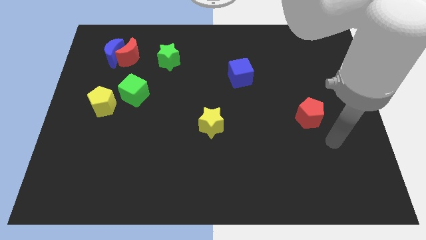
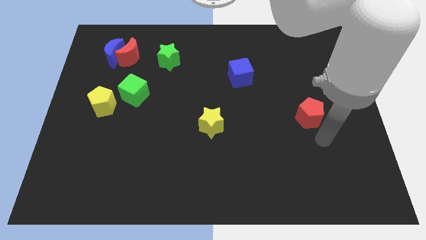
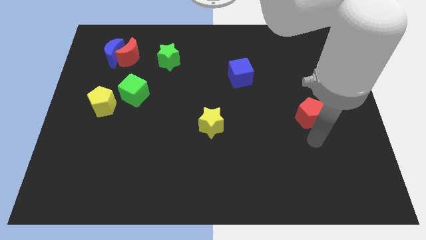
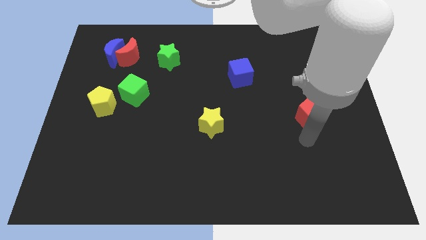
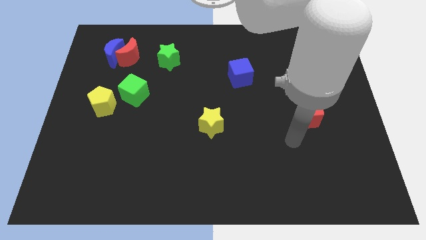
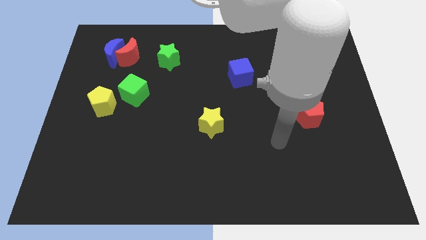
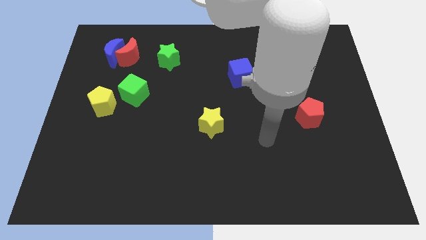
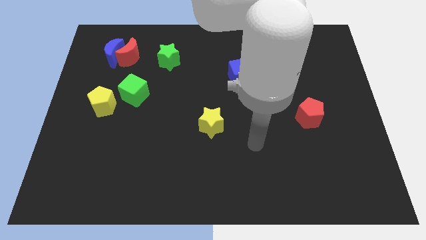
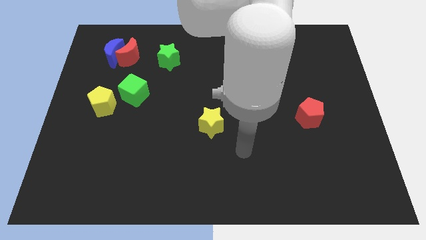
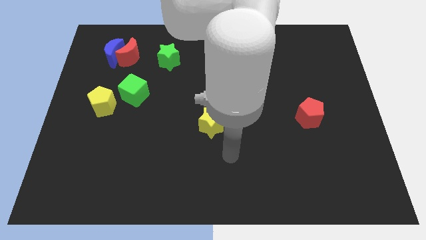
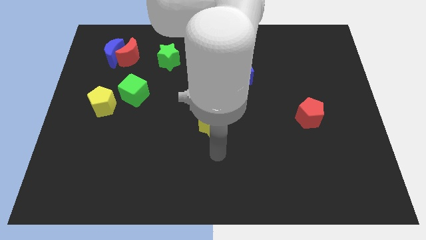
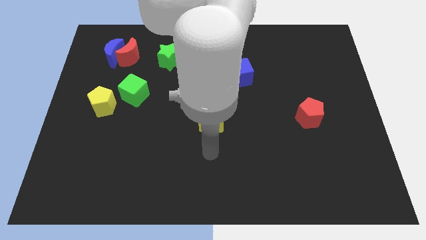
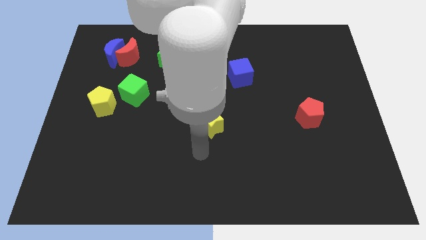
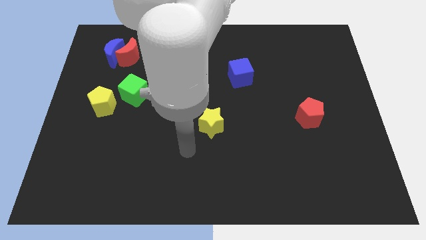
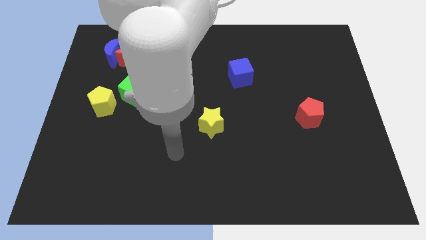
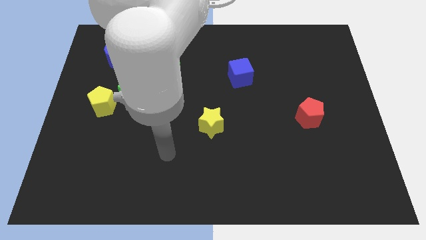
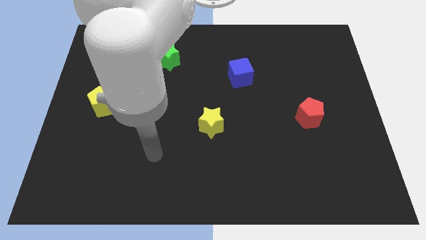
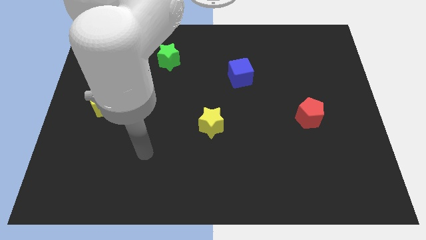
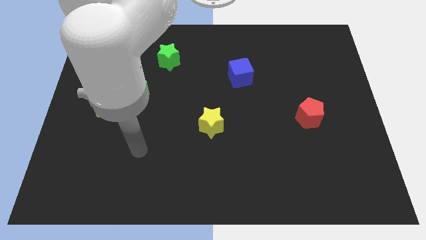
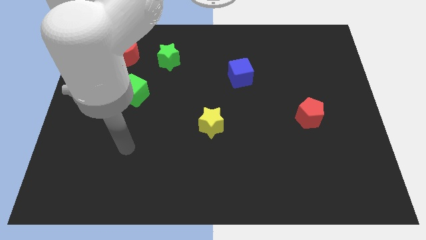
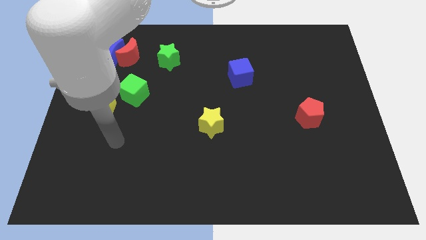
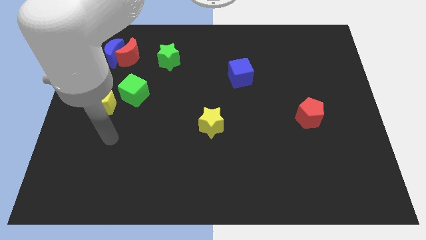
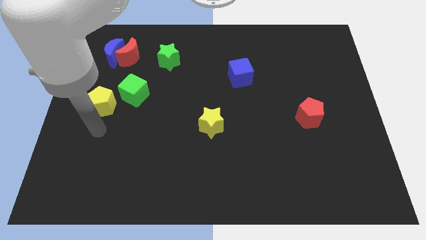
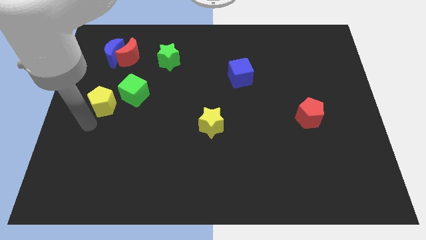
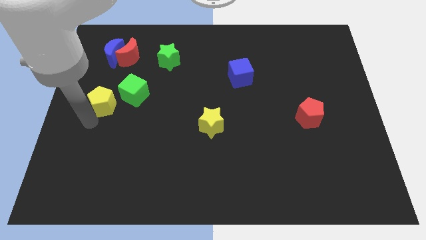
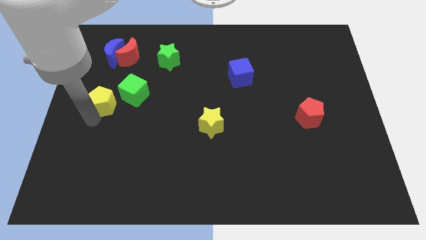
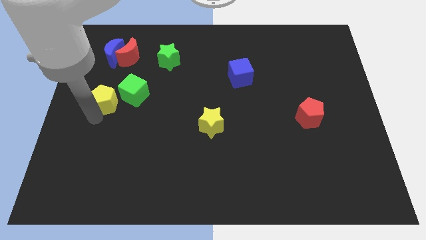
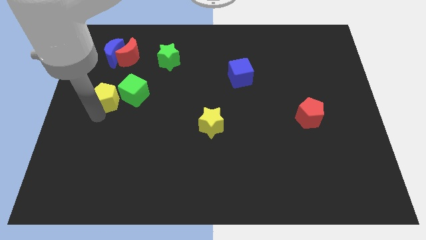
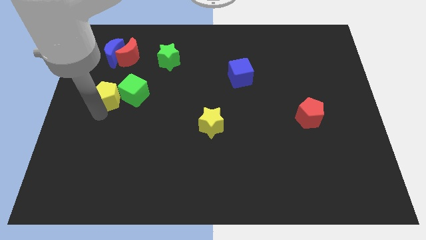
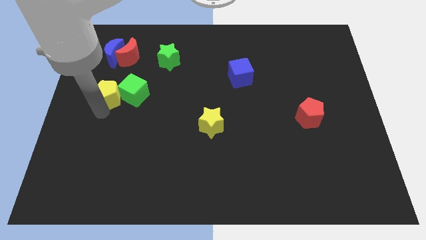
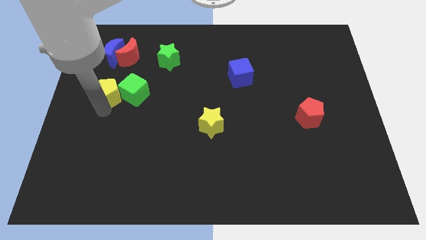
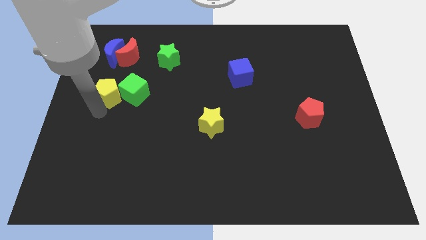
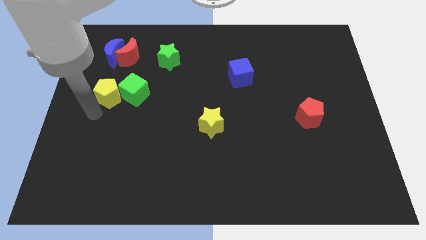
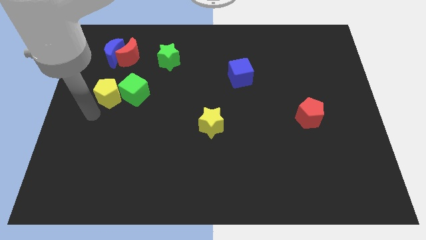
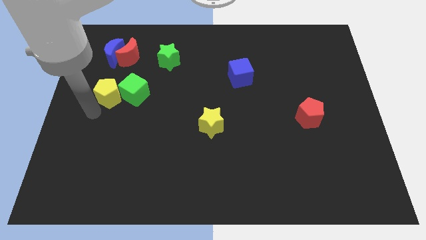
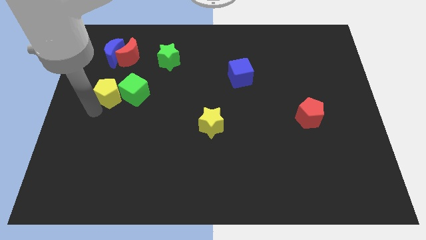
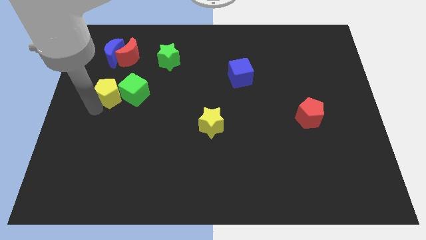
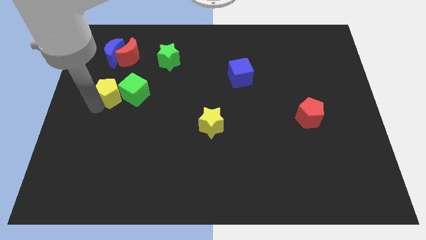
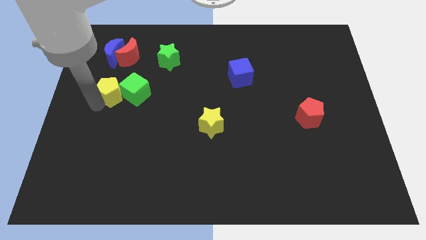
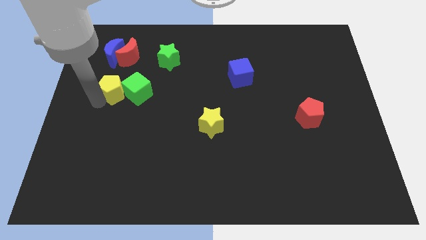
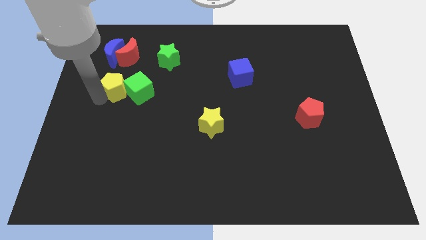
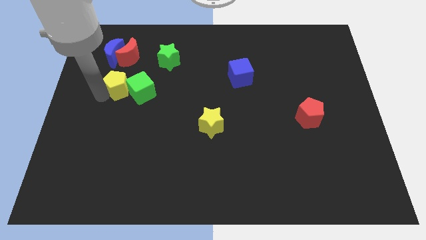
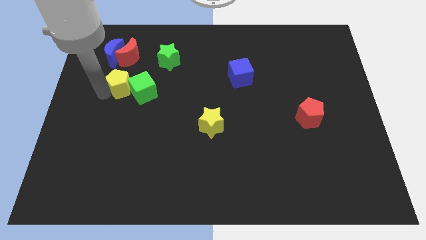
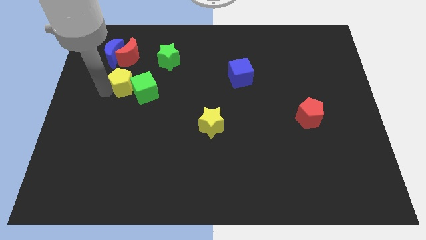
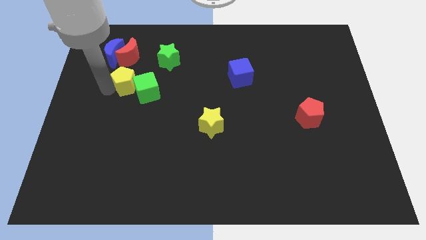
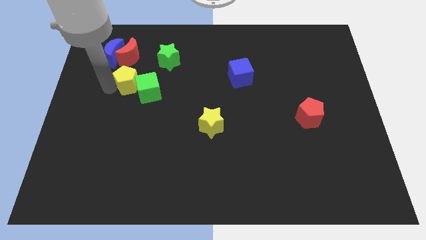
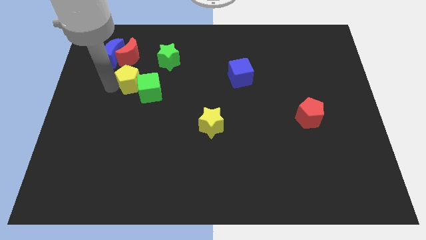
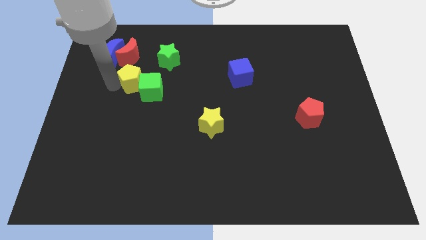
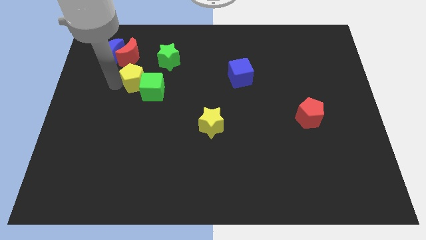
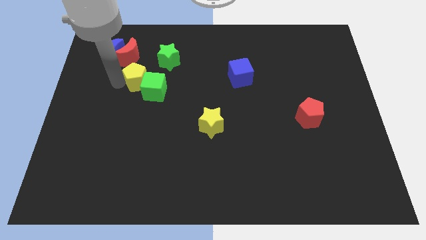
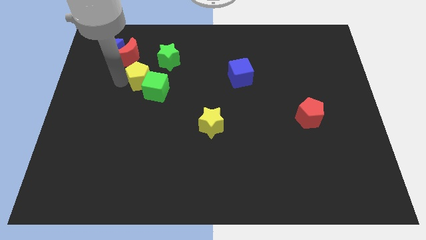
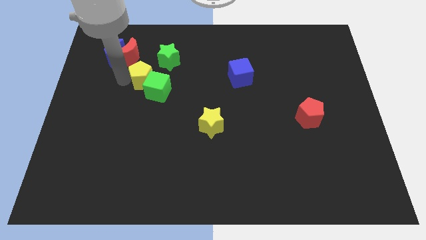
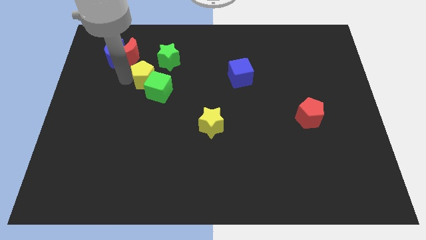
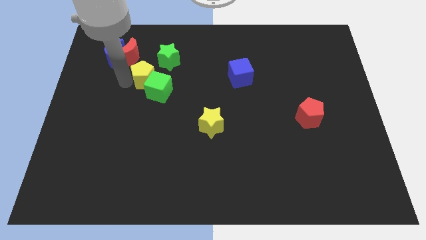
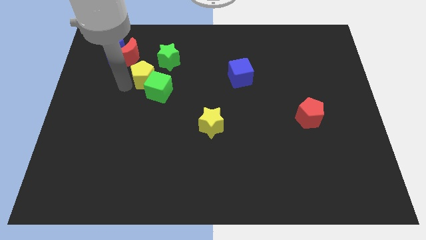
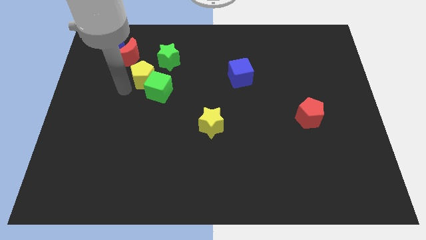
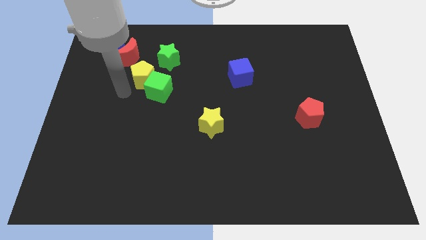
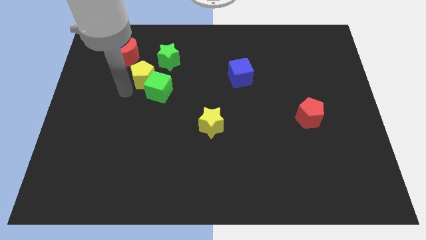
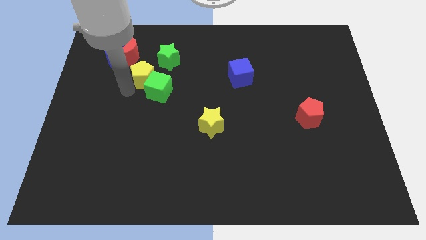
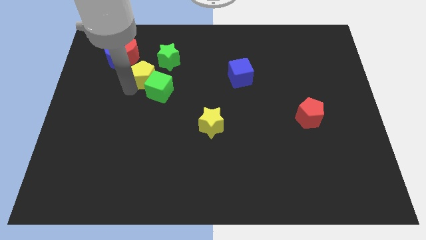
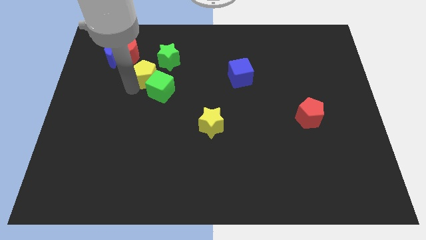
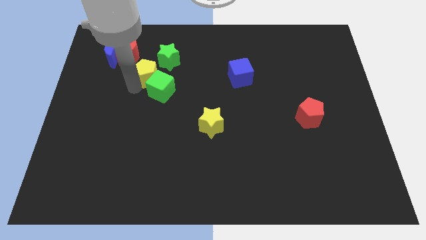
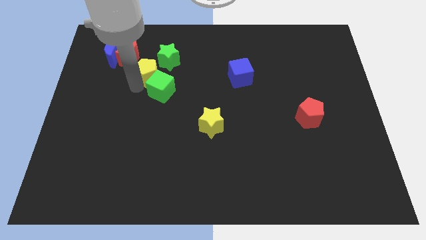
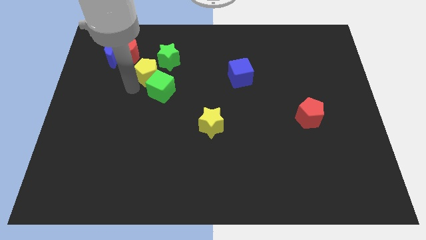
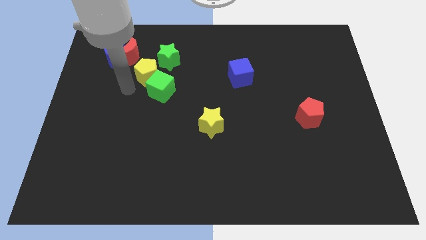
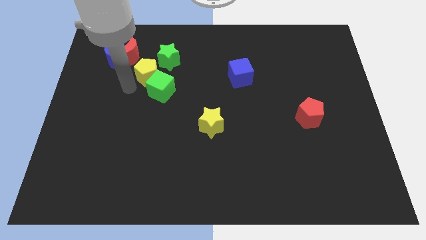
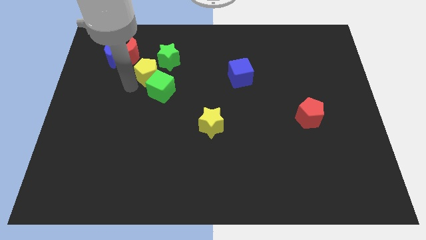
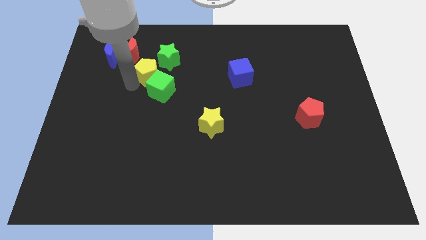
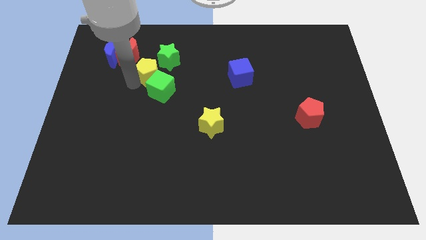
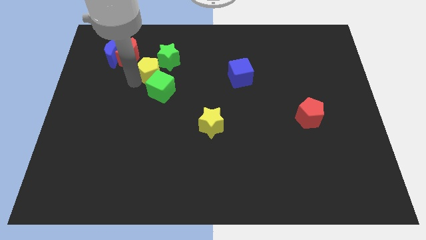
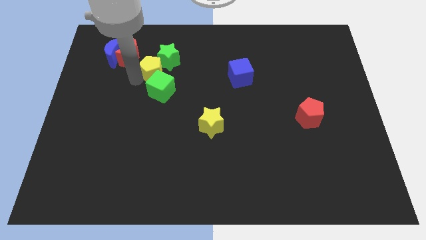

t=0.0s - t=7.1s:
push the yellow pentagon close to the green star

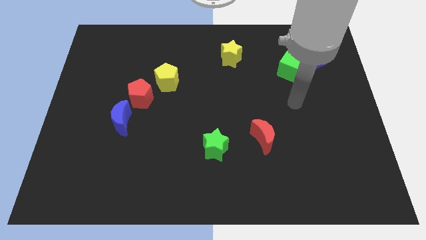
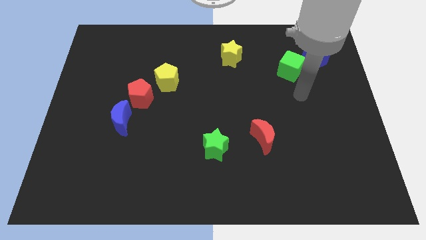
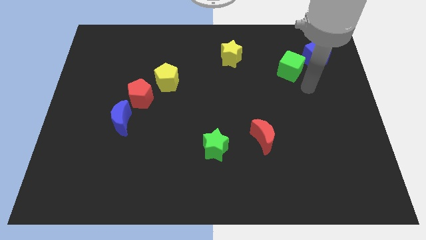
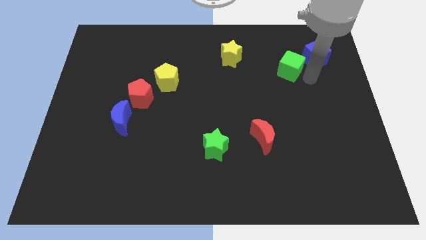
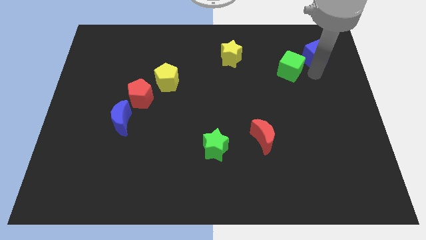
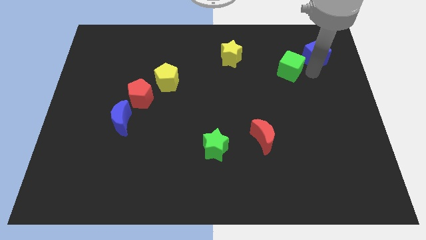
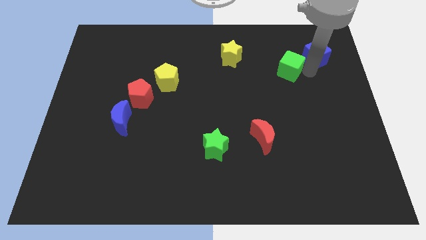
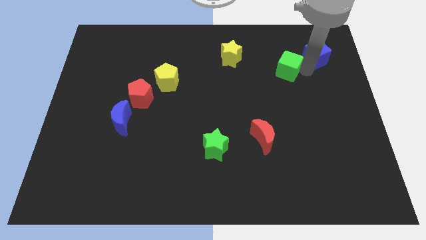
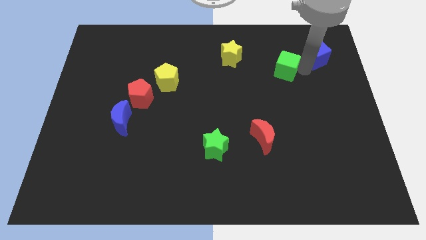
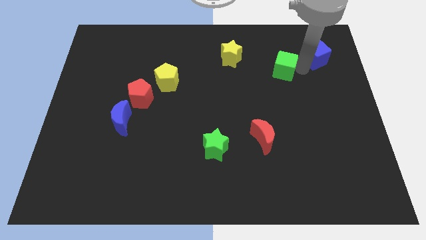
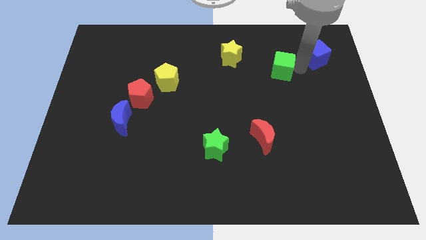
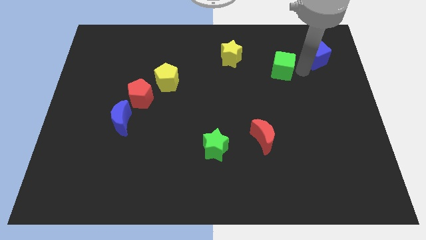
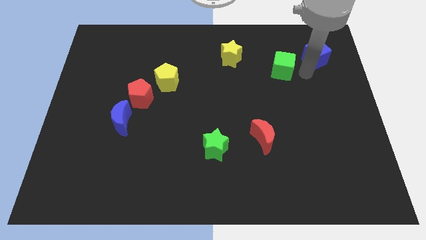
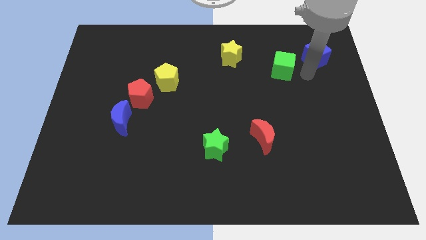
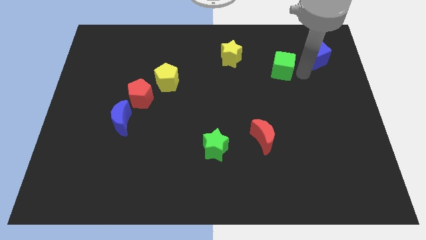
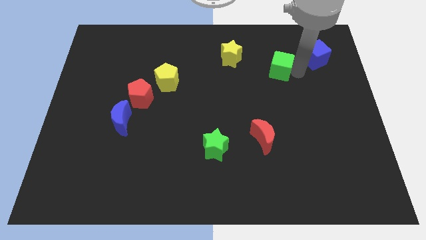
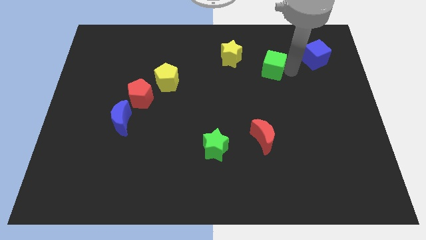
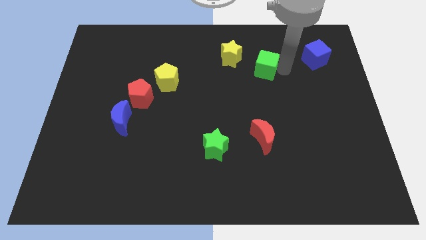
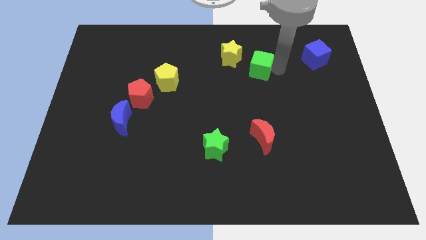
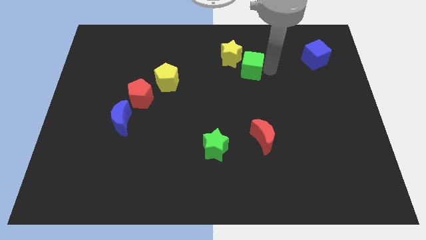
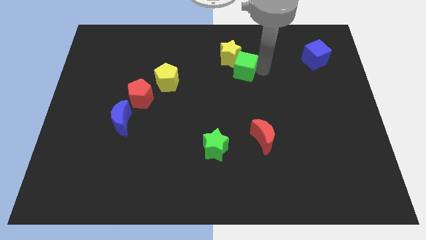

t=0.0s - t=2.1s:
move the green cube close to the yellow star
